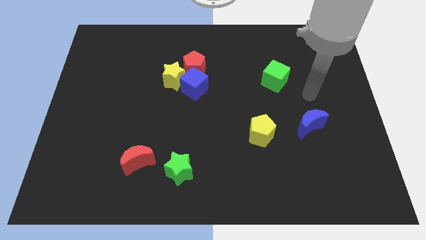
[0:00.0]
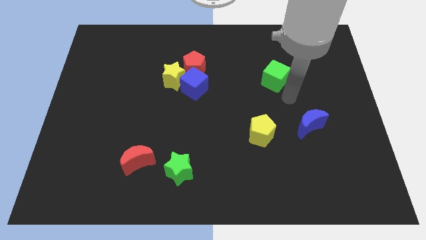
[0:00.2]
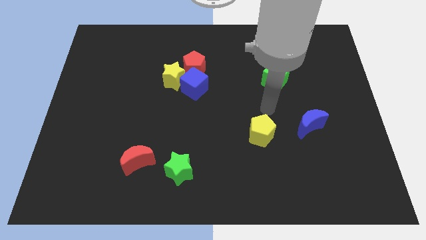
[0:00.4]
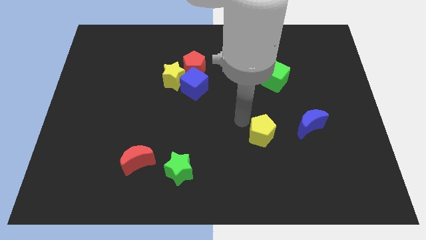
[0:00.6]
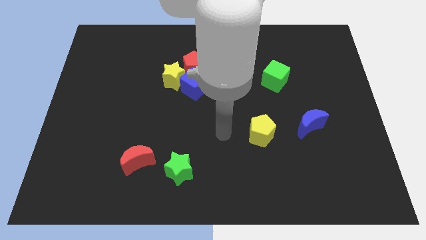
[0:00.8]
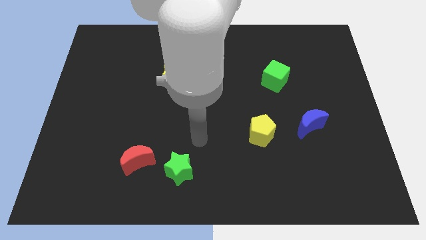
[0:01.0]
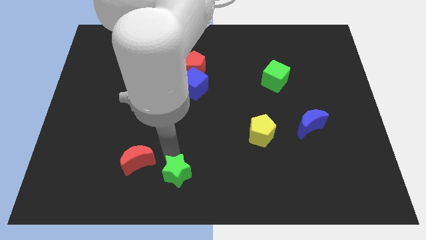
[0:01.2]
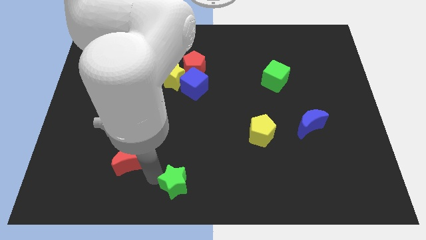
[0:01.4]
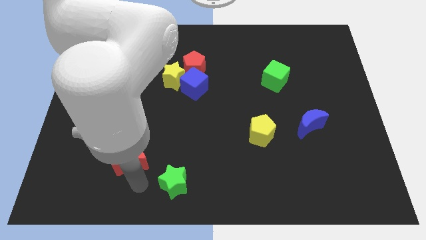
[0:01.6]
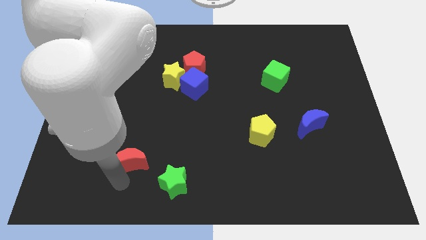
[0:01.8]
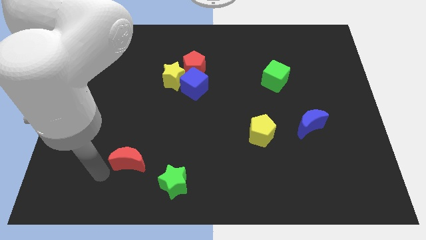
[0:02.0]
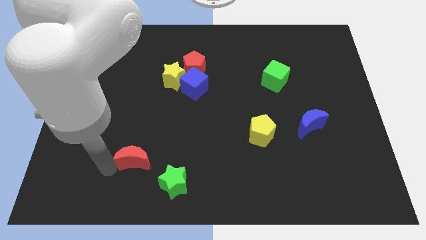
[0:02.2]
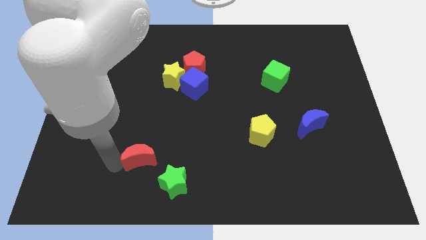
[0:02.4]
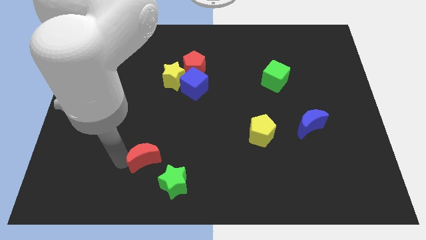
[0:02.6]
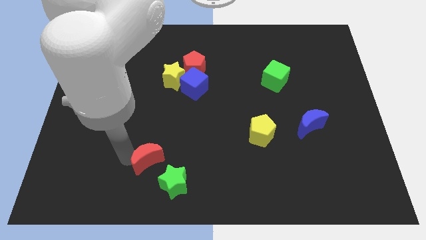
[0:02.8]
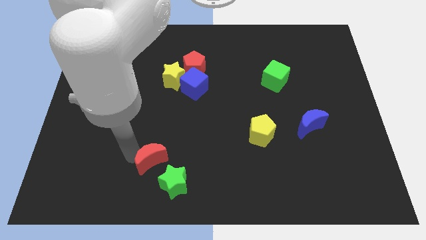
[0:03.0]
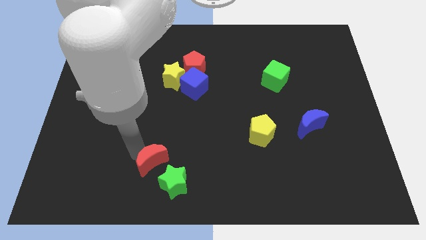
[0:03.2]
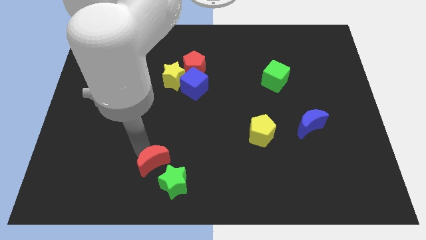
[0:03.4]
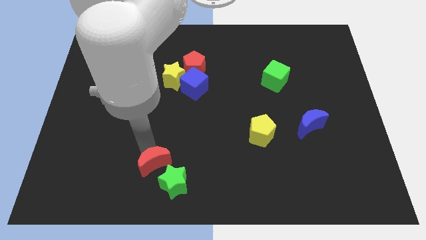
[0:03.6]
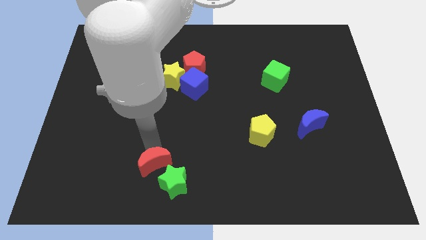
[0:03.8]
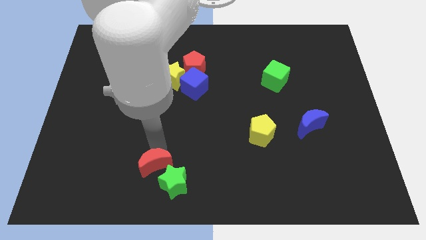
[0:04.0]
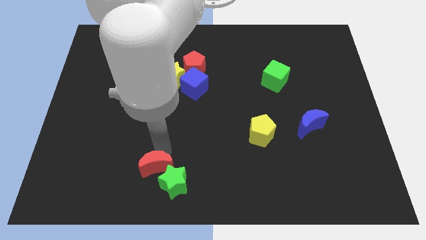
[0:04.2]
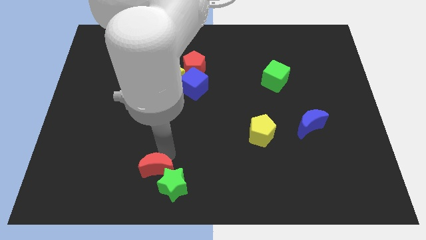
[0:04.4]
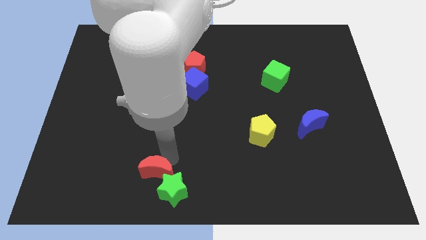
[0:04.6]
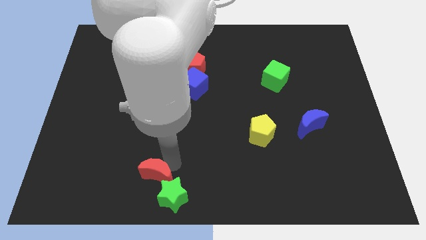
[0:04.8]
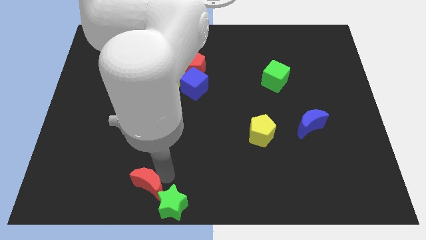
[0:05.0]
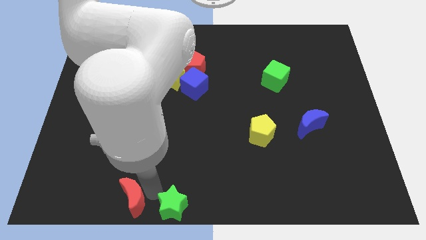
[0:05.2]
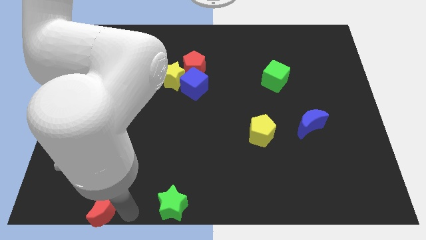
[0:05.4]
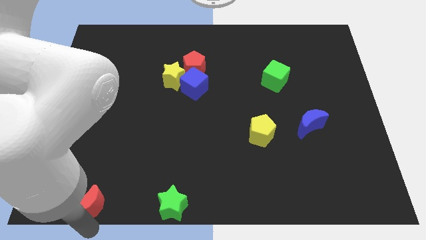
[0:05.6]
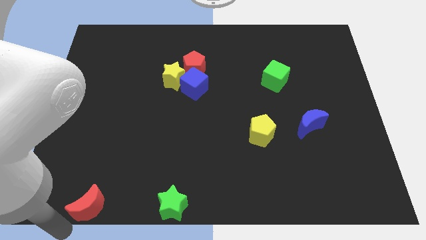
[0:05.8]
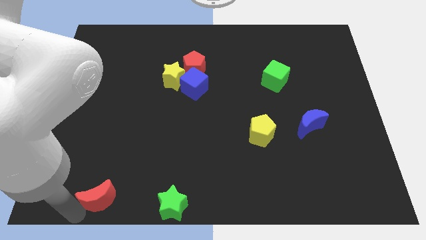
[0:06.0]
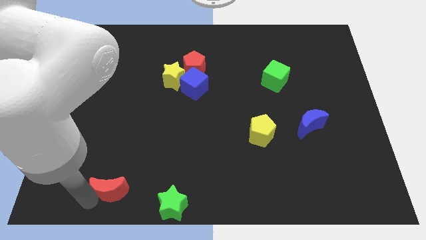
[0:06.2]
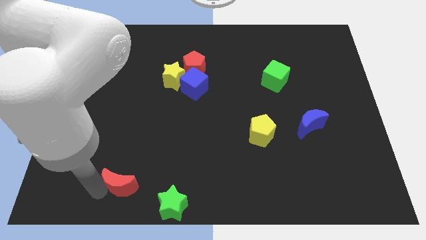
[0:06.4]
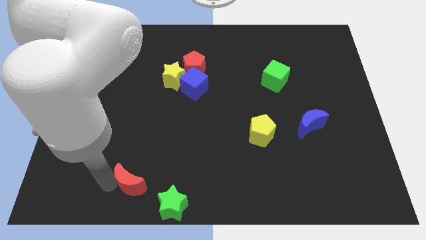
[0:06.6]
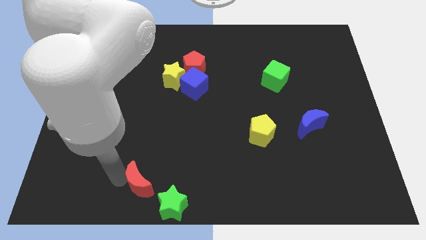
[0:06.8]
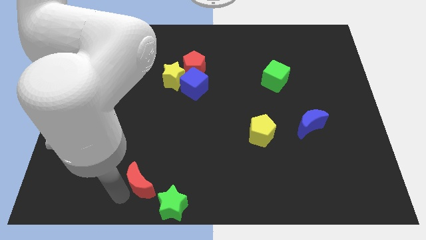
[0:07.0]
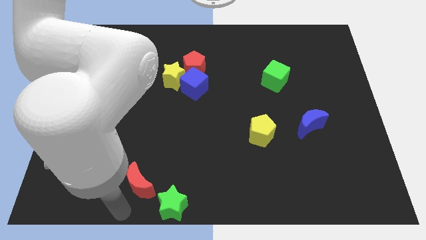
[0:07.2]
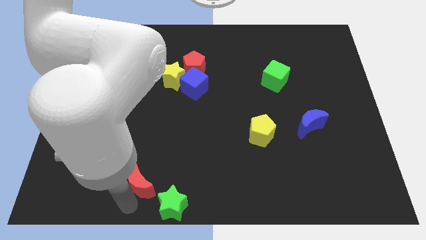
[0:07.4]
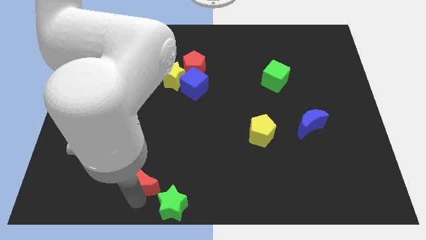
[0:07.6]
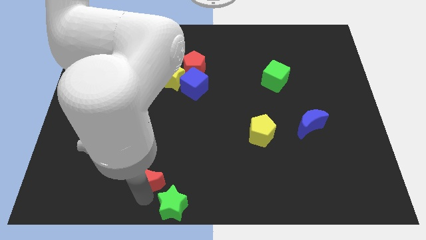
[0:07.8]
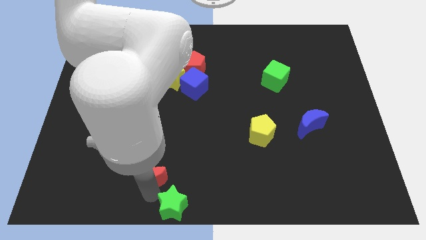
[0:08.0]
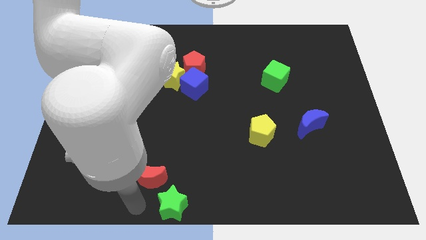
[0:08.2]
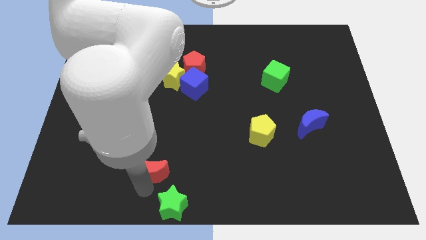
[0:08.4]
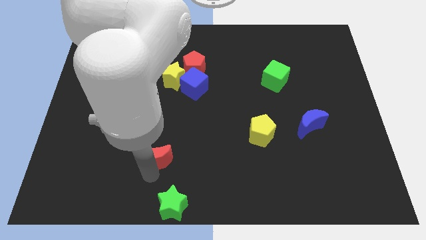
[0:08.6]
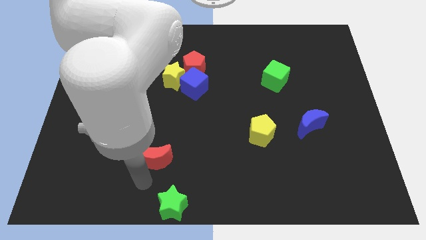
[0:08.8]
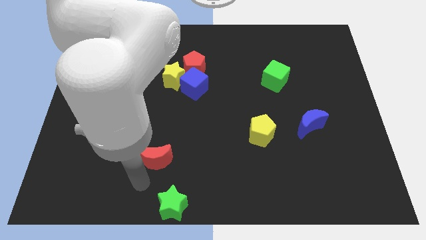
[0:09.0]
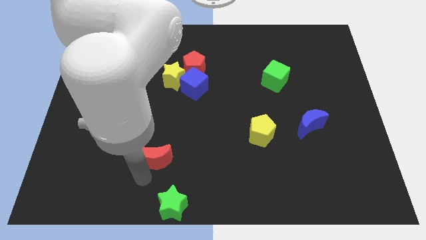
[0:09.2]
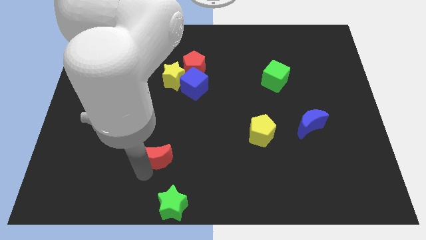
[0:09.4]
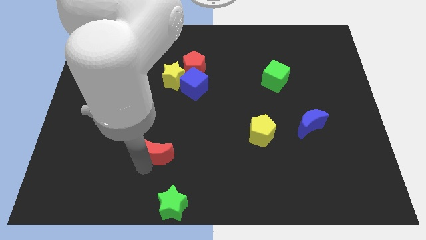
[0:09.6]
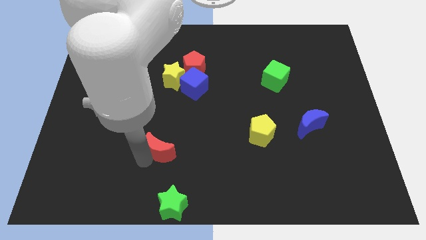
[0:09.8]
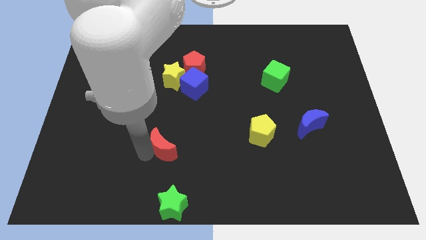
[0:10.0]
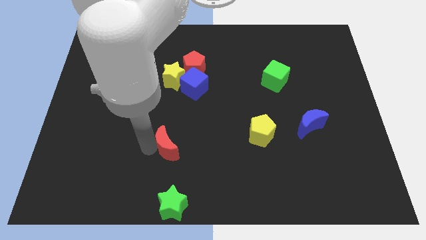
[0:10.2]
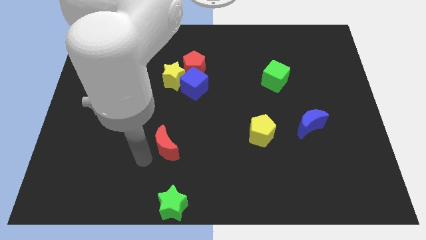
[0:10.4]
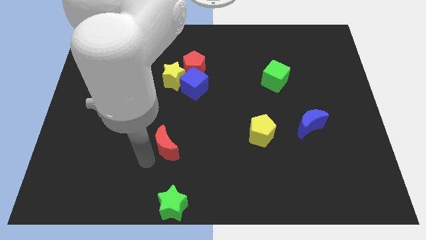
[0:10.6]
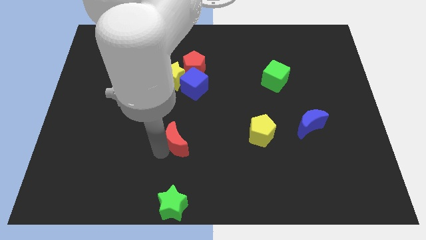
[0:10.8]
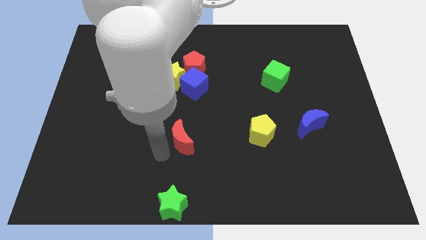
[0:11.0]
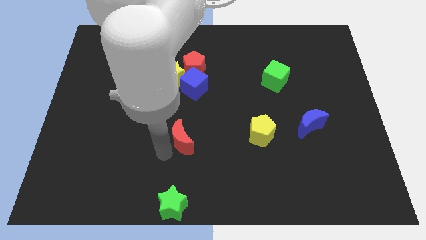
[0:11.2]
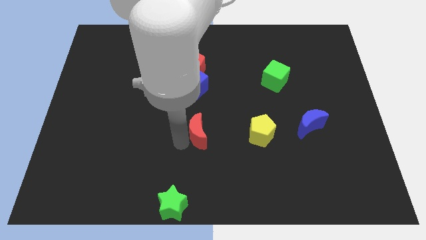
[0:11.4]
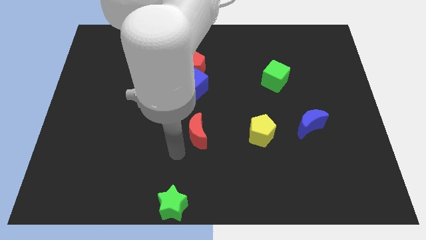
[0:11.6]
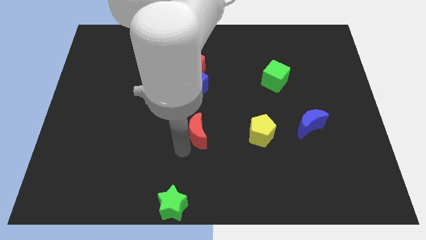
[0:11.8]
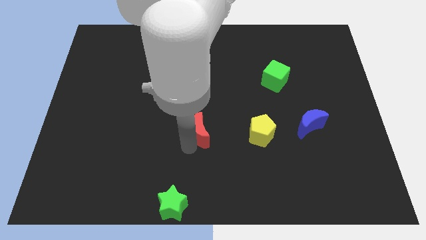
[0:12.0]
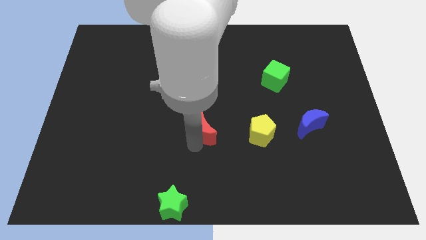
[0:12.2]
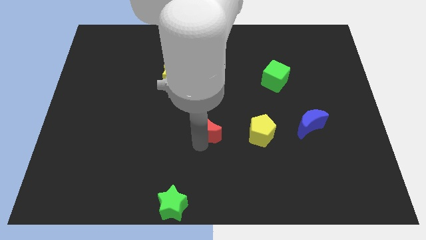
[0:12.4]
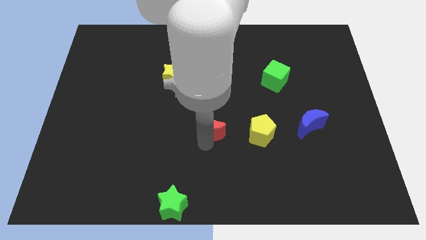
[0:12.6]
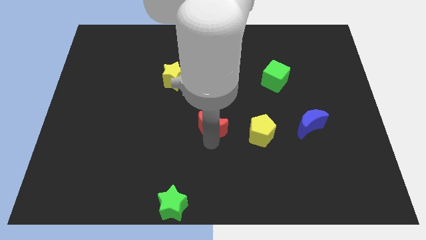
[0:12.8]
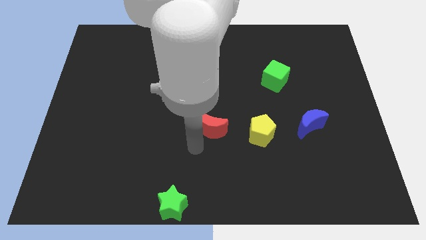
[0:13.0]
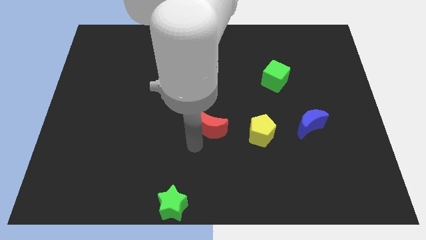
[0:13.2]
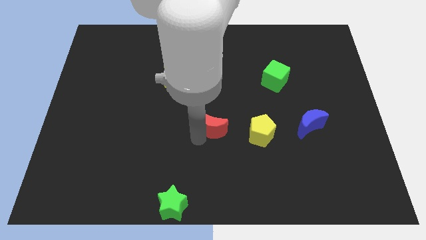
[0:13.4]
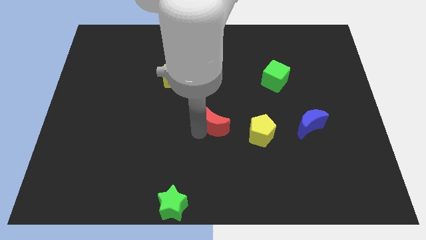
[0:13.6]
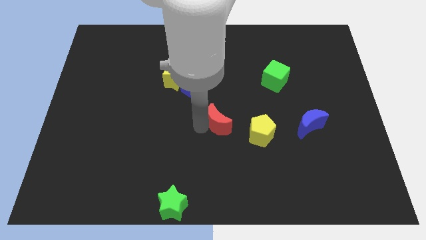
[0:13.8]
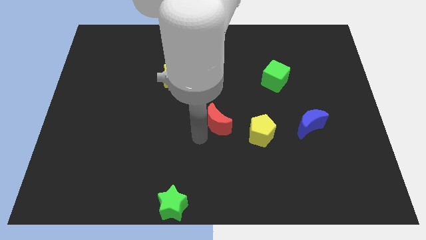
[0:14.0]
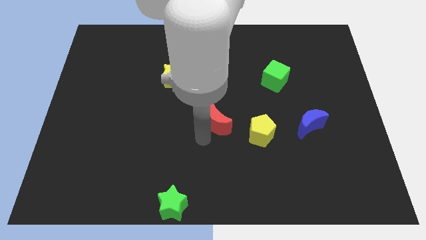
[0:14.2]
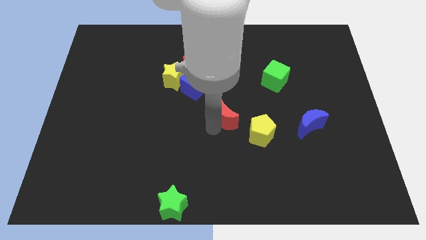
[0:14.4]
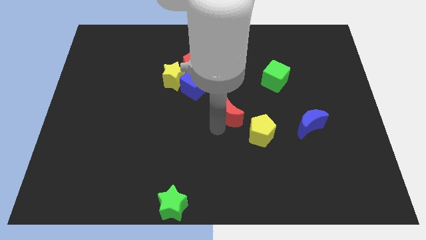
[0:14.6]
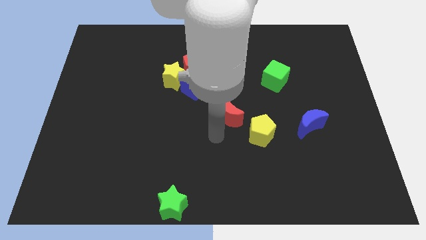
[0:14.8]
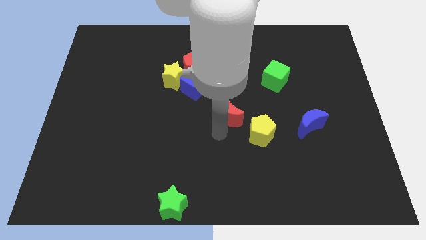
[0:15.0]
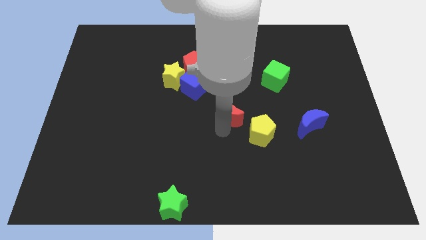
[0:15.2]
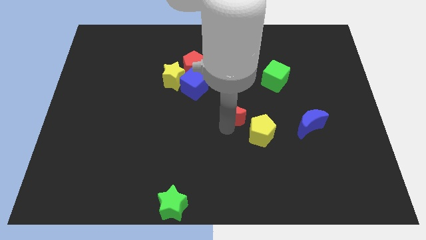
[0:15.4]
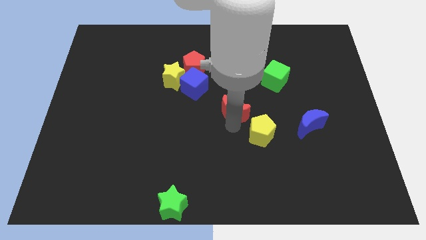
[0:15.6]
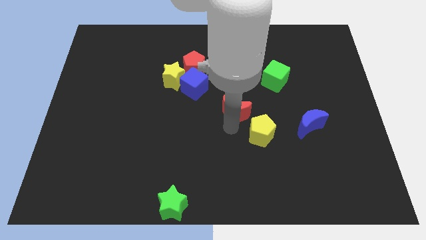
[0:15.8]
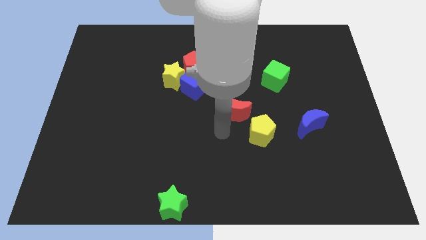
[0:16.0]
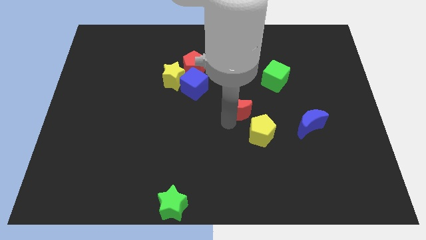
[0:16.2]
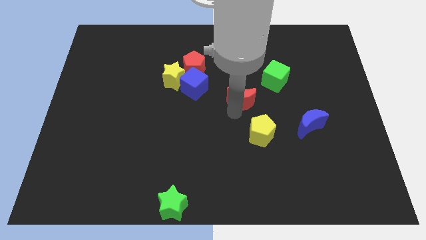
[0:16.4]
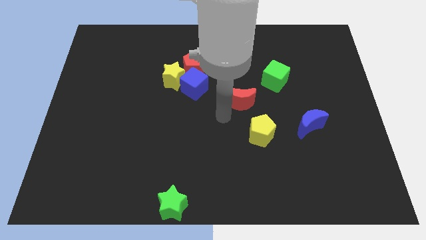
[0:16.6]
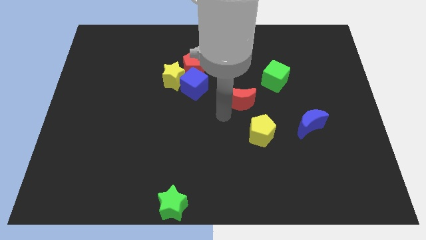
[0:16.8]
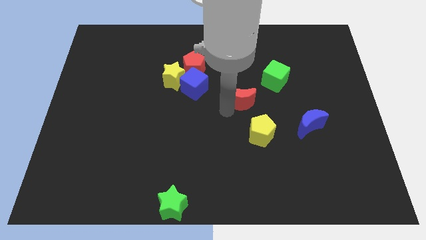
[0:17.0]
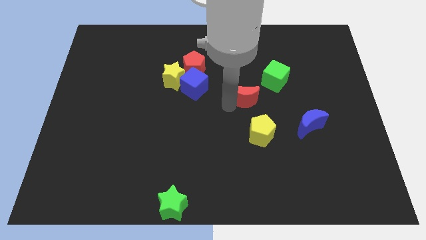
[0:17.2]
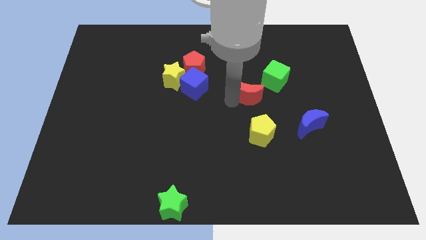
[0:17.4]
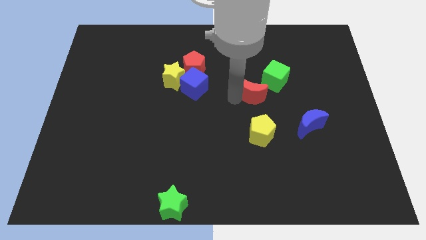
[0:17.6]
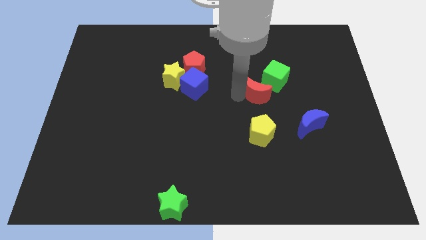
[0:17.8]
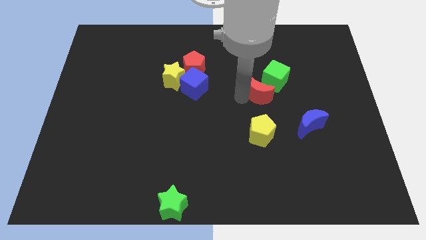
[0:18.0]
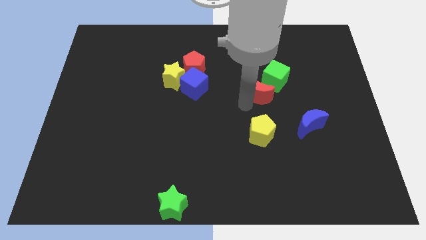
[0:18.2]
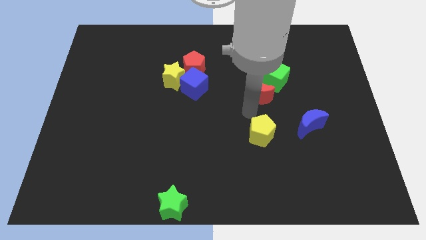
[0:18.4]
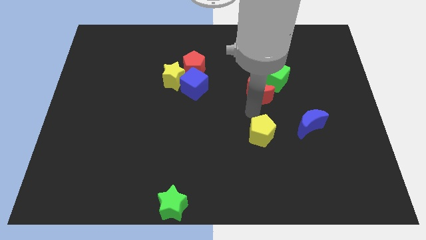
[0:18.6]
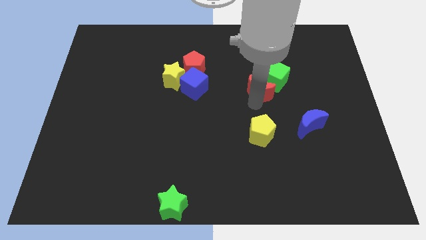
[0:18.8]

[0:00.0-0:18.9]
move the red moon to the green cube
